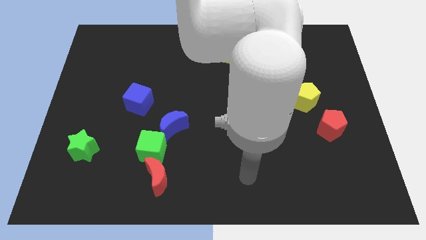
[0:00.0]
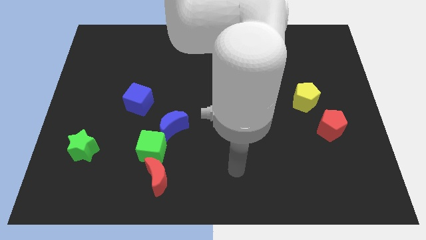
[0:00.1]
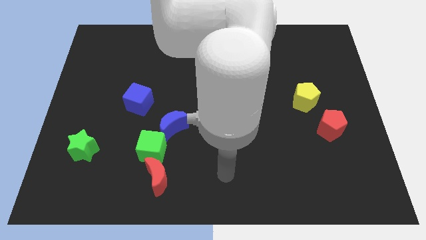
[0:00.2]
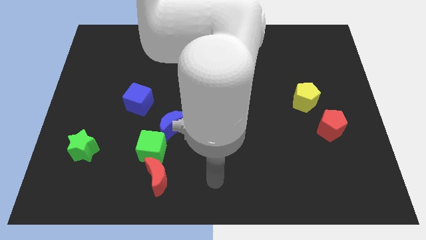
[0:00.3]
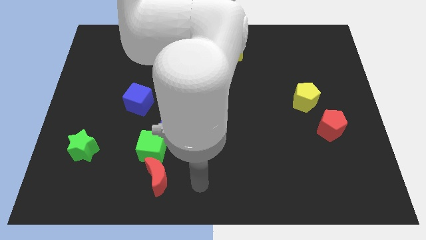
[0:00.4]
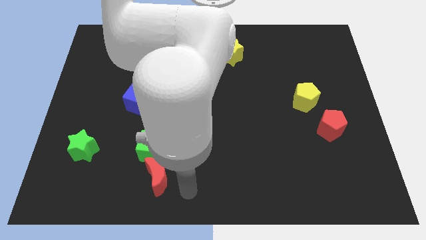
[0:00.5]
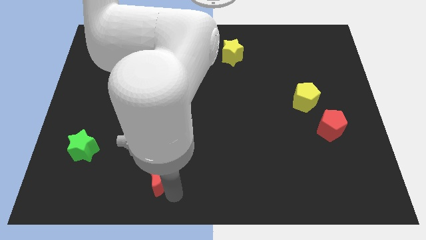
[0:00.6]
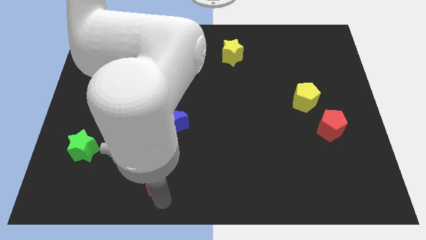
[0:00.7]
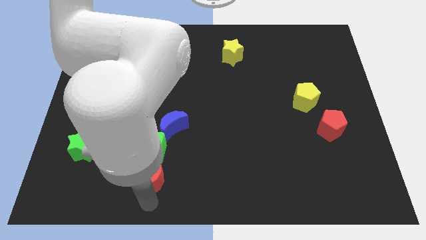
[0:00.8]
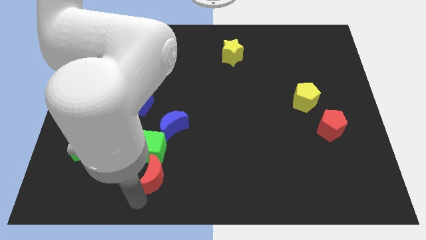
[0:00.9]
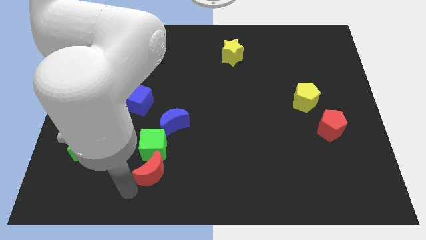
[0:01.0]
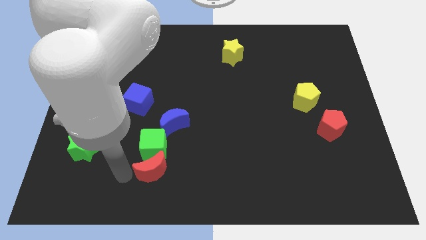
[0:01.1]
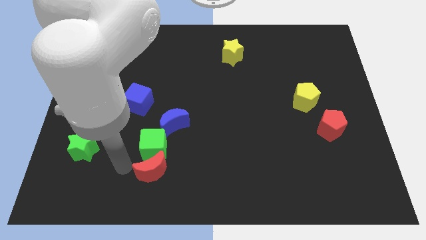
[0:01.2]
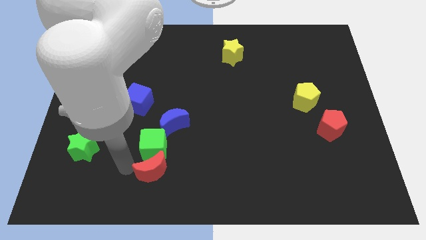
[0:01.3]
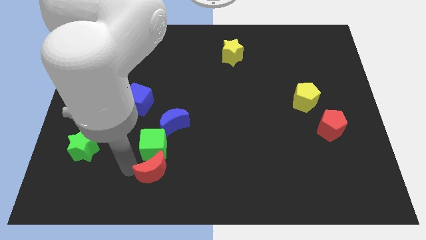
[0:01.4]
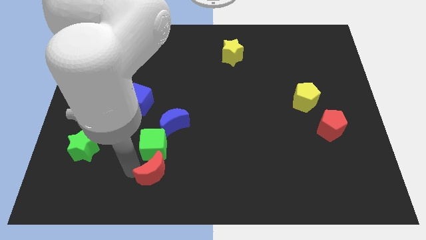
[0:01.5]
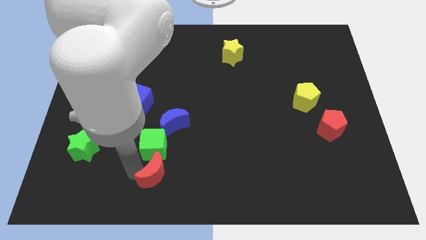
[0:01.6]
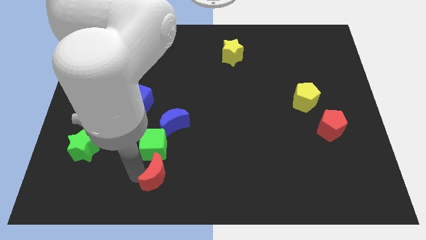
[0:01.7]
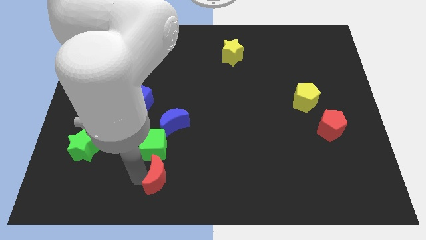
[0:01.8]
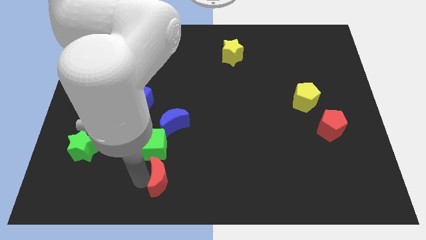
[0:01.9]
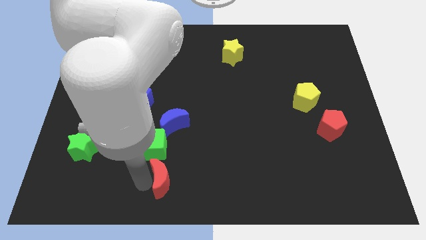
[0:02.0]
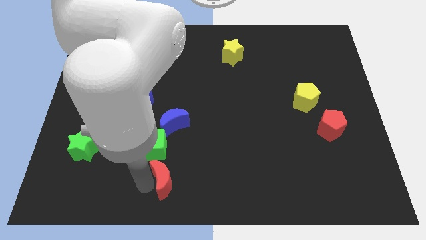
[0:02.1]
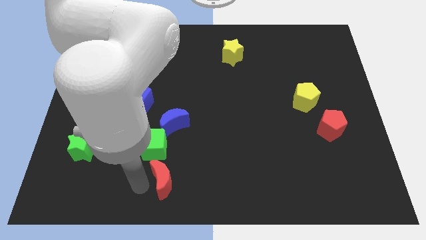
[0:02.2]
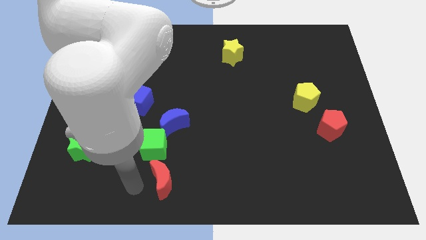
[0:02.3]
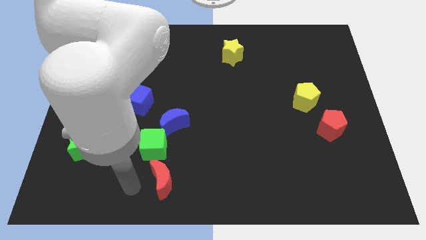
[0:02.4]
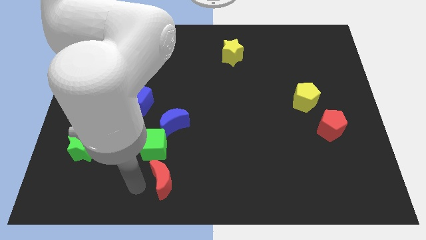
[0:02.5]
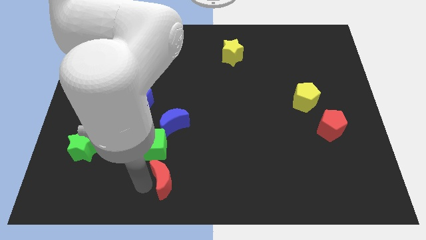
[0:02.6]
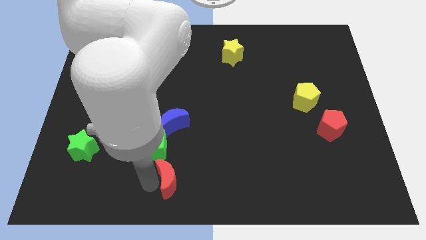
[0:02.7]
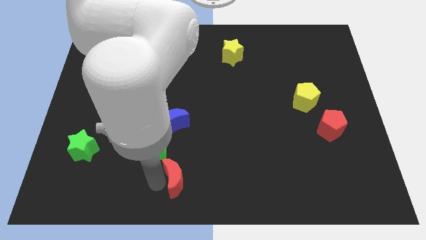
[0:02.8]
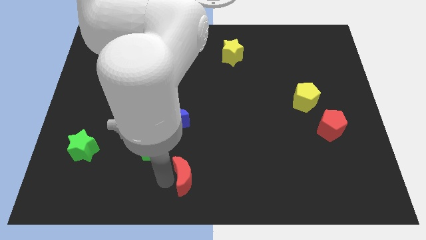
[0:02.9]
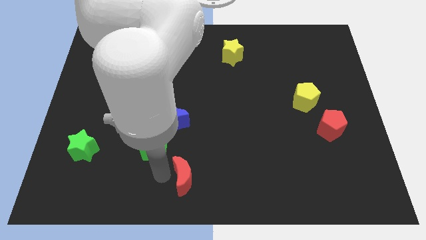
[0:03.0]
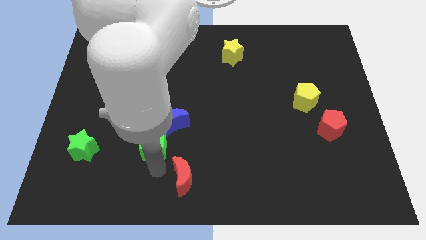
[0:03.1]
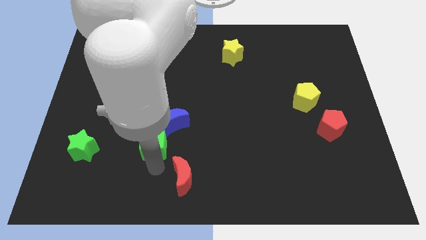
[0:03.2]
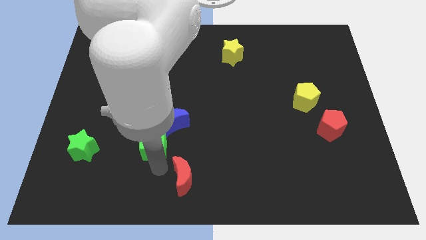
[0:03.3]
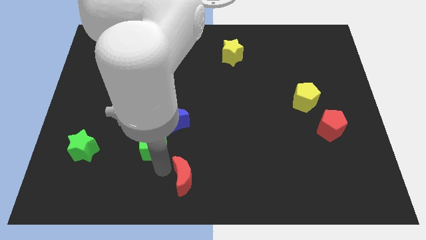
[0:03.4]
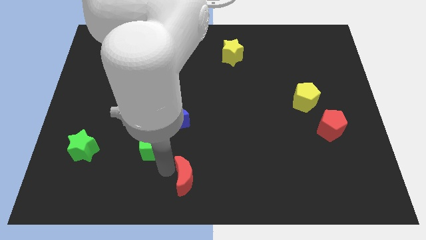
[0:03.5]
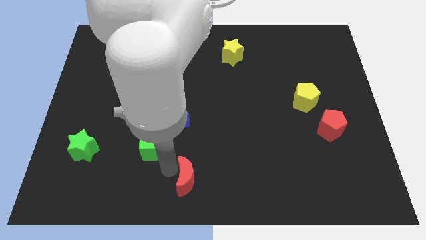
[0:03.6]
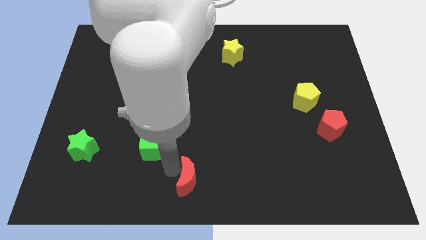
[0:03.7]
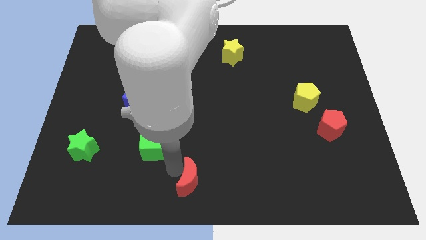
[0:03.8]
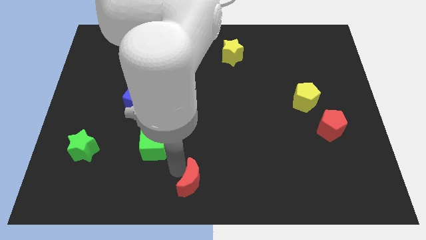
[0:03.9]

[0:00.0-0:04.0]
slightly move the red moon right

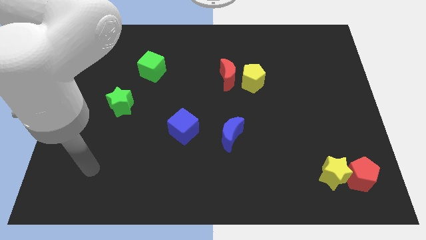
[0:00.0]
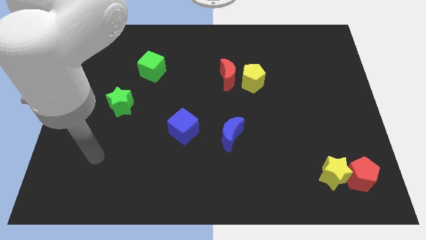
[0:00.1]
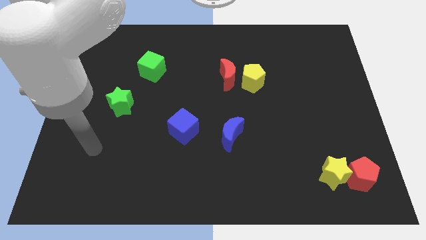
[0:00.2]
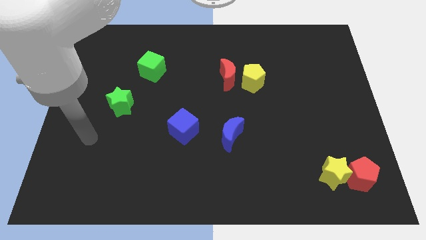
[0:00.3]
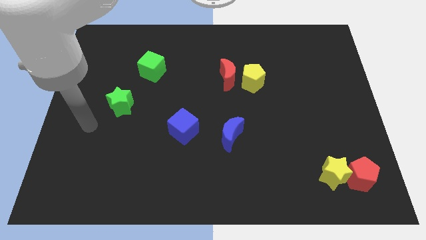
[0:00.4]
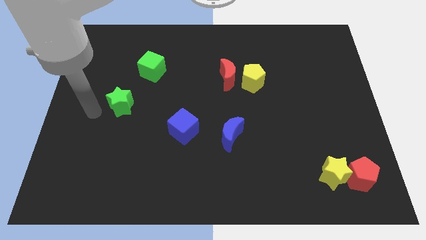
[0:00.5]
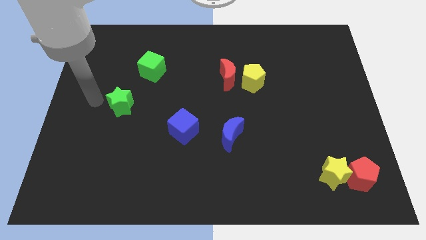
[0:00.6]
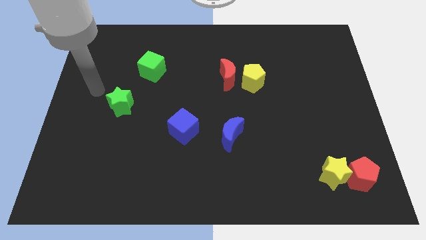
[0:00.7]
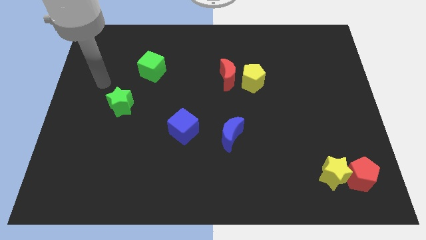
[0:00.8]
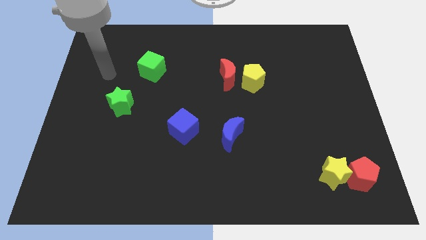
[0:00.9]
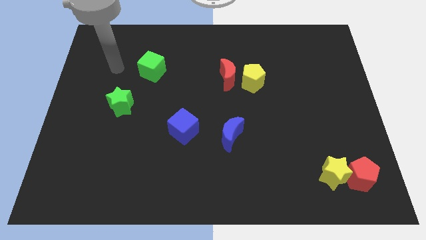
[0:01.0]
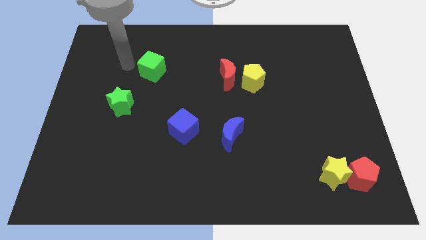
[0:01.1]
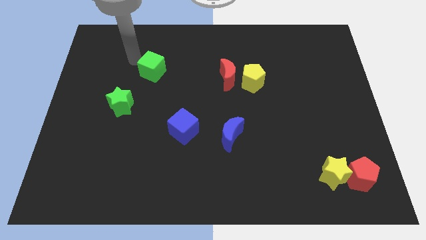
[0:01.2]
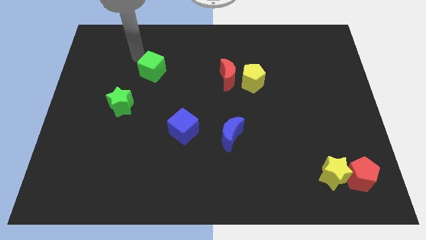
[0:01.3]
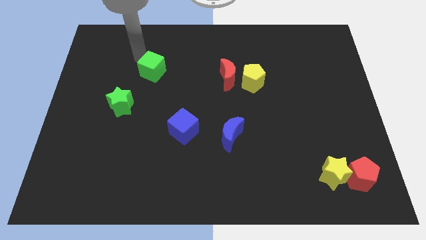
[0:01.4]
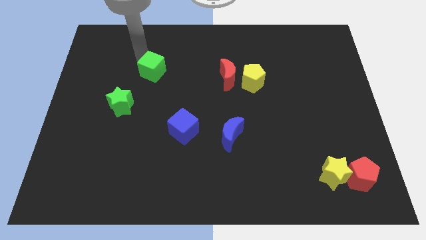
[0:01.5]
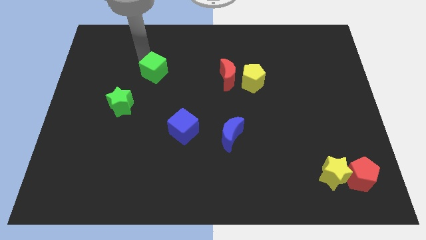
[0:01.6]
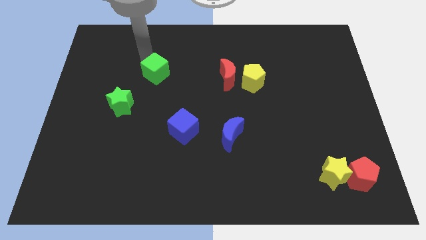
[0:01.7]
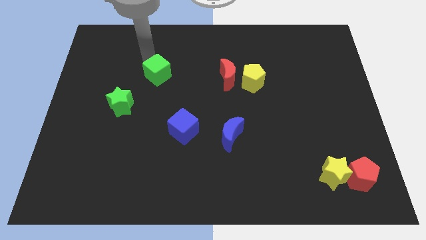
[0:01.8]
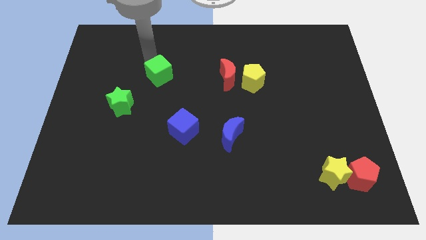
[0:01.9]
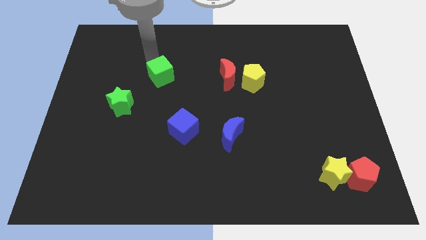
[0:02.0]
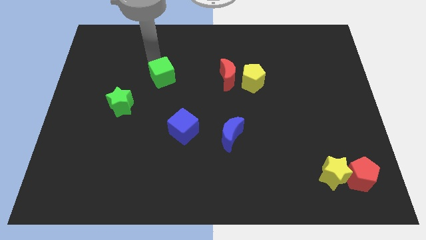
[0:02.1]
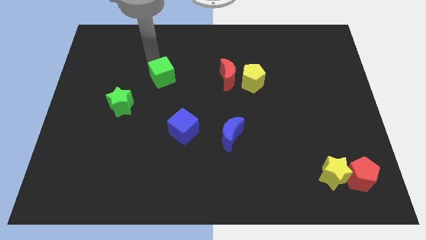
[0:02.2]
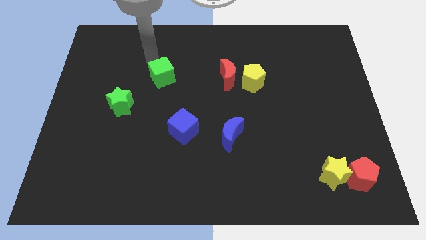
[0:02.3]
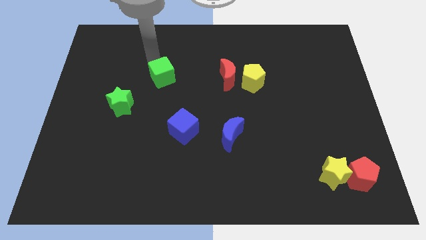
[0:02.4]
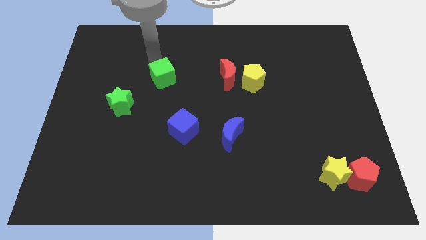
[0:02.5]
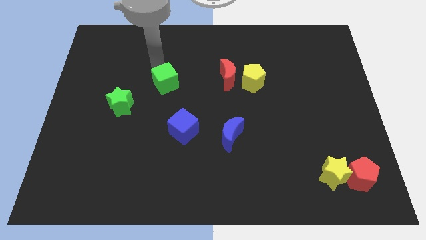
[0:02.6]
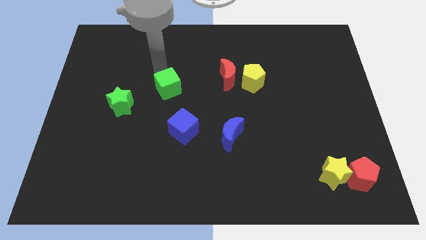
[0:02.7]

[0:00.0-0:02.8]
slightly push the green cube downwards and then to the right

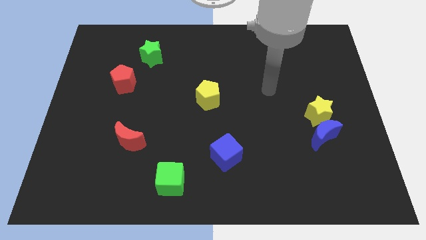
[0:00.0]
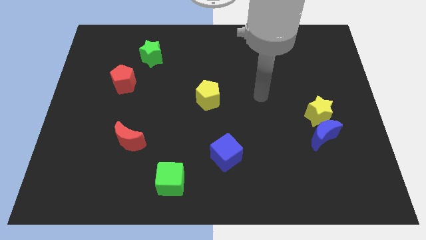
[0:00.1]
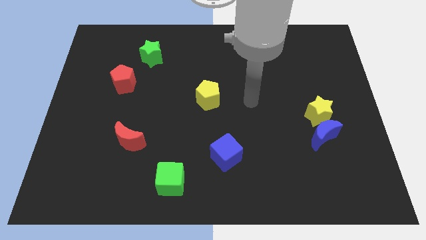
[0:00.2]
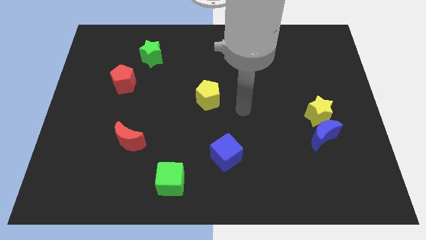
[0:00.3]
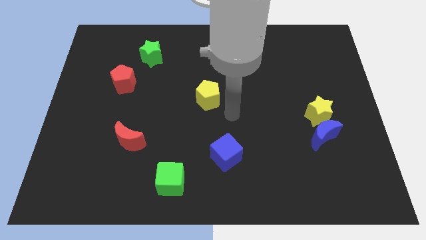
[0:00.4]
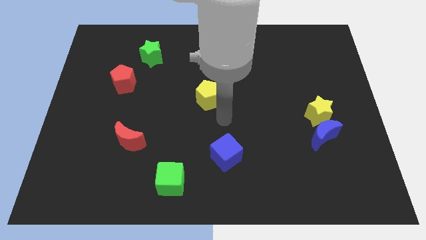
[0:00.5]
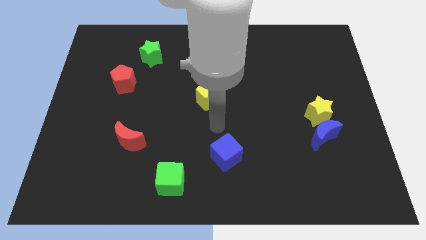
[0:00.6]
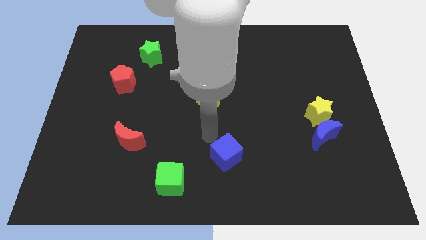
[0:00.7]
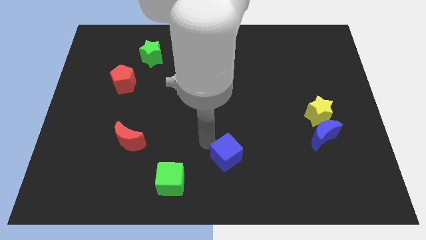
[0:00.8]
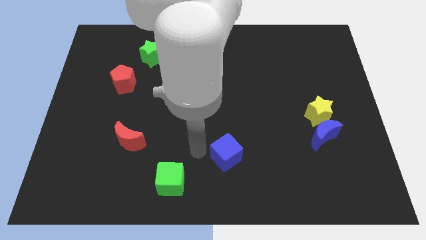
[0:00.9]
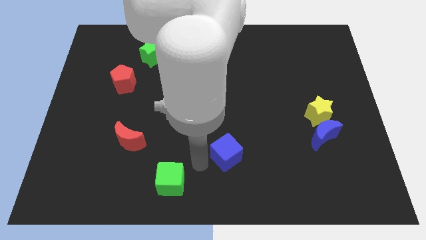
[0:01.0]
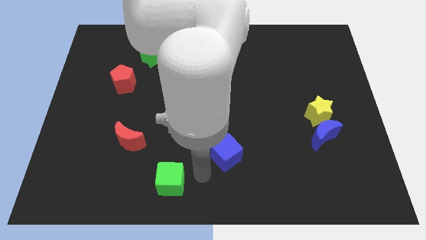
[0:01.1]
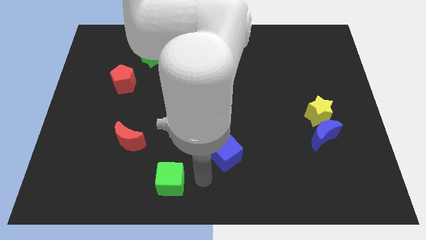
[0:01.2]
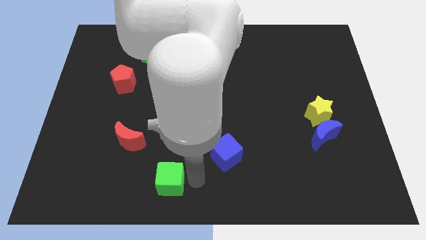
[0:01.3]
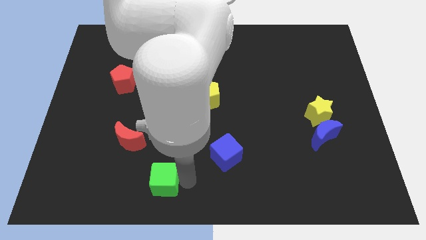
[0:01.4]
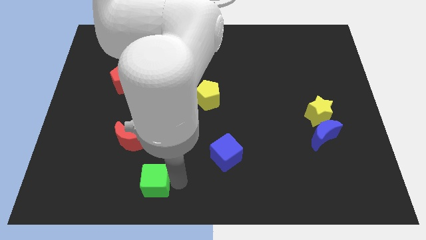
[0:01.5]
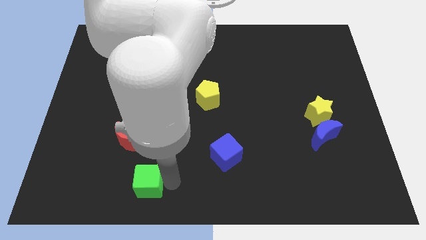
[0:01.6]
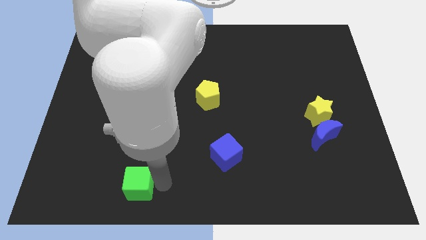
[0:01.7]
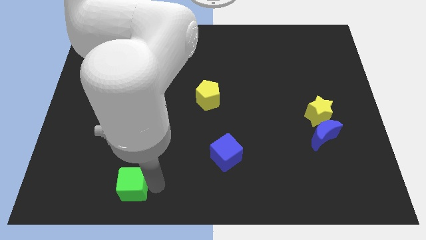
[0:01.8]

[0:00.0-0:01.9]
slightly move the green cube left
